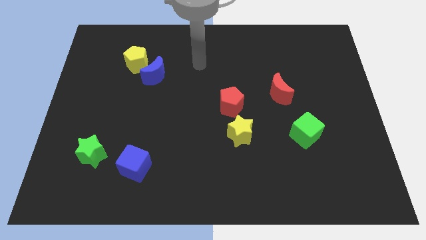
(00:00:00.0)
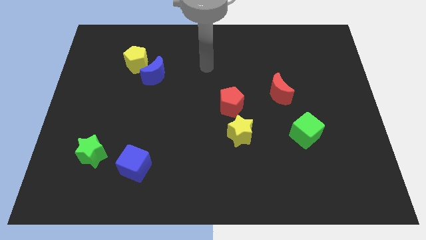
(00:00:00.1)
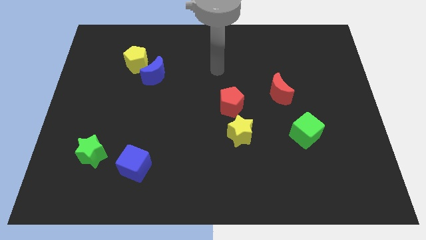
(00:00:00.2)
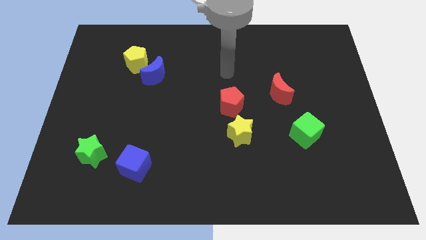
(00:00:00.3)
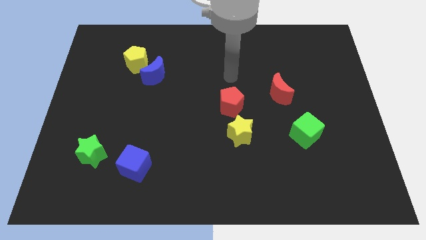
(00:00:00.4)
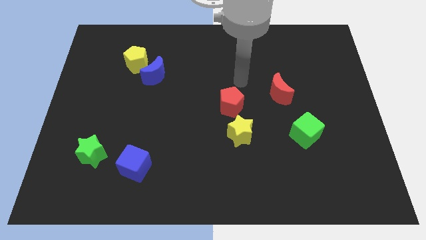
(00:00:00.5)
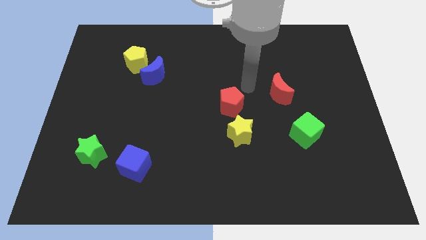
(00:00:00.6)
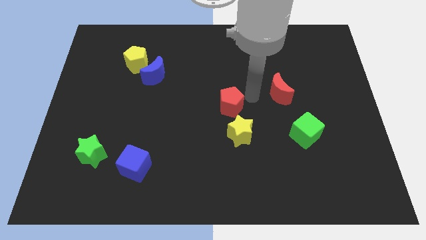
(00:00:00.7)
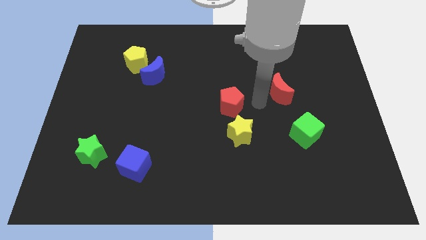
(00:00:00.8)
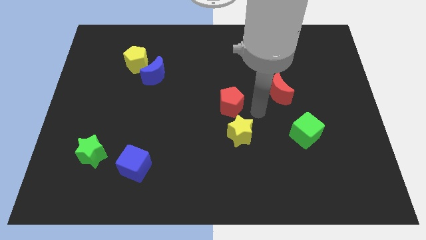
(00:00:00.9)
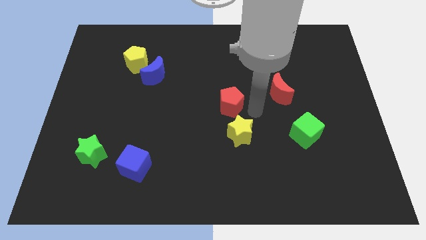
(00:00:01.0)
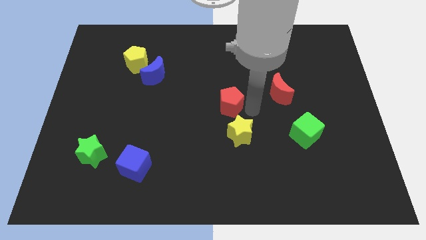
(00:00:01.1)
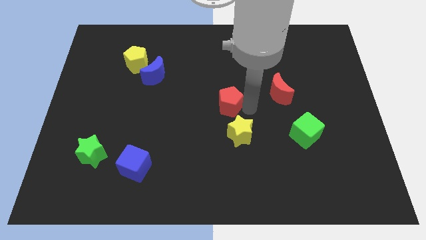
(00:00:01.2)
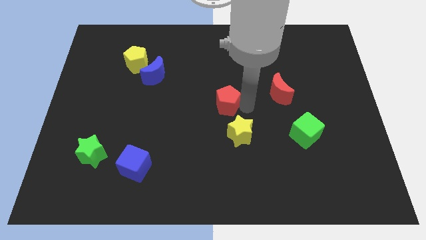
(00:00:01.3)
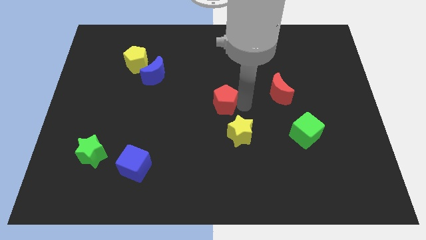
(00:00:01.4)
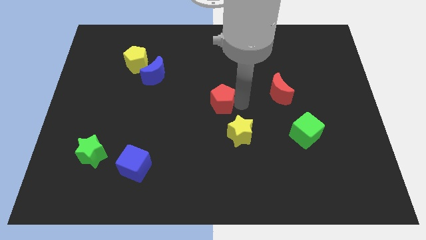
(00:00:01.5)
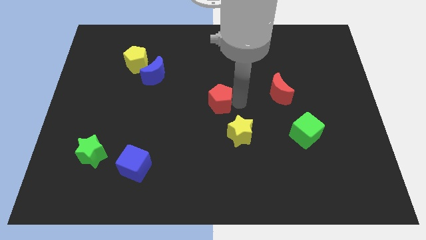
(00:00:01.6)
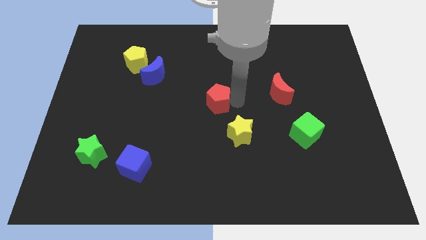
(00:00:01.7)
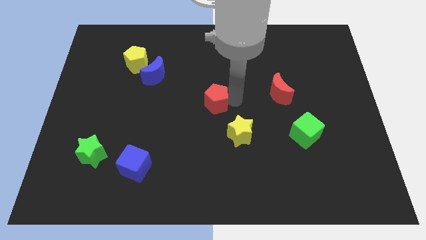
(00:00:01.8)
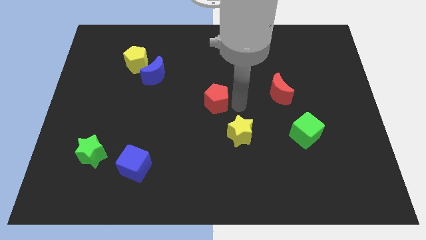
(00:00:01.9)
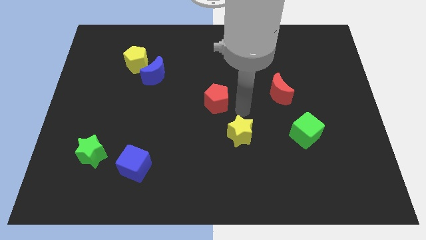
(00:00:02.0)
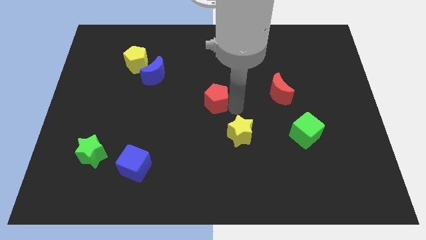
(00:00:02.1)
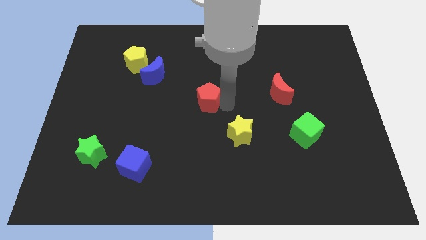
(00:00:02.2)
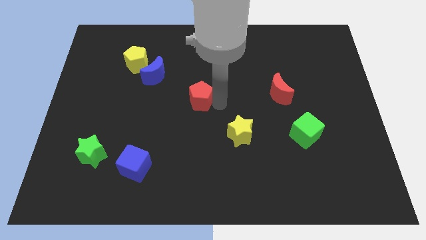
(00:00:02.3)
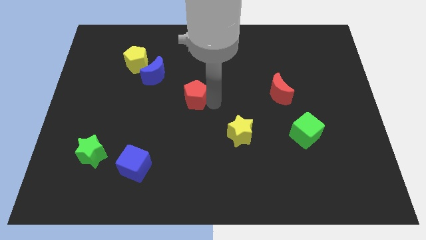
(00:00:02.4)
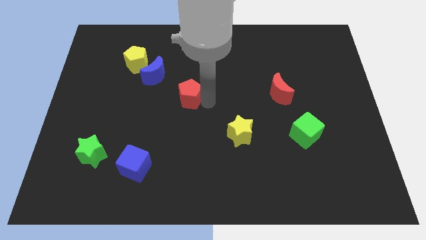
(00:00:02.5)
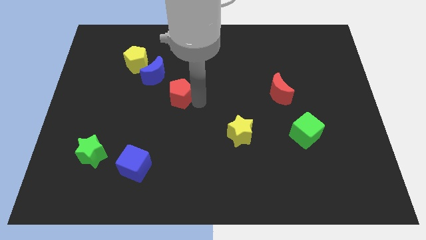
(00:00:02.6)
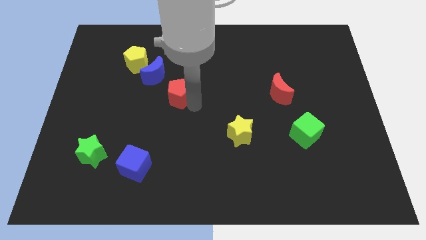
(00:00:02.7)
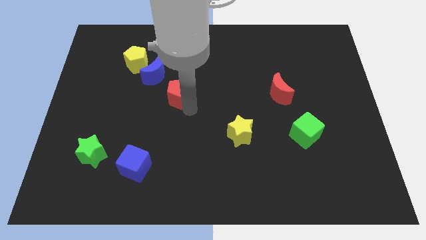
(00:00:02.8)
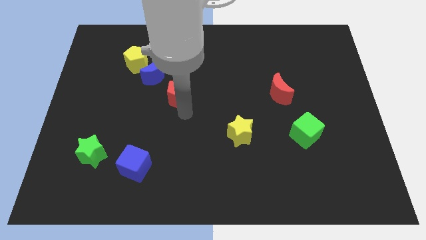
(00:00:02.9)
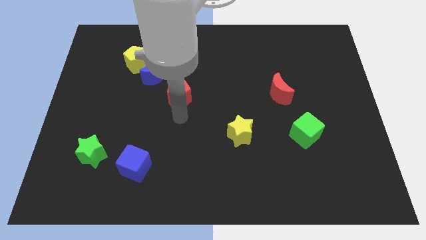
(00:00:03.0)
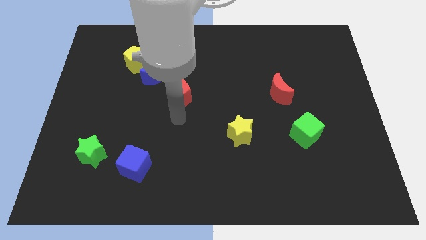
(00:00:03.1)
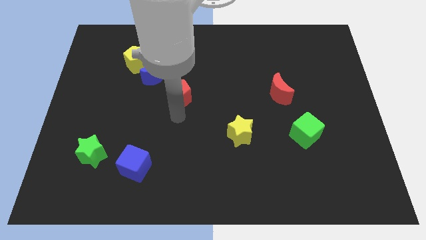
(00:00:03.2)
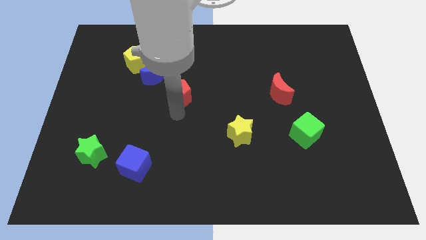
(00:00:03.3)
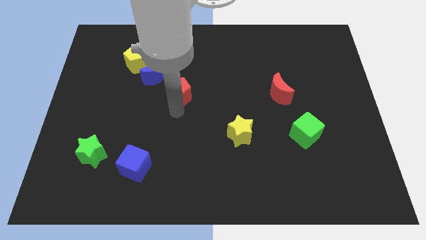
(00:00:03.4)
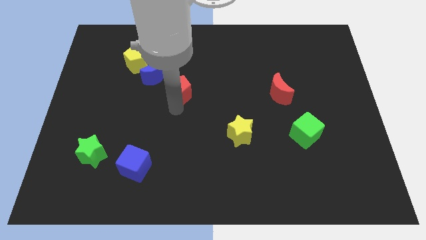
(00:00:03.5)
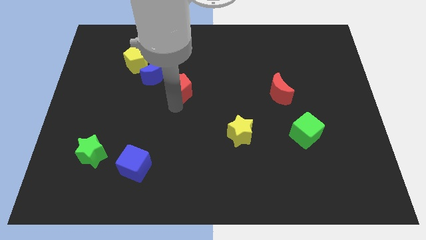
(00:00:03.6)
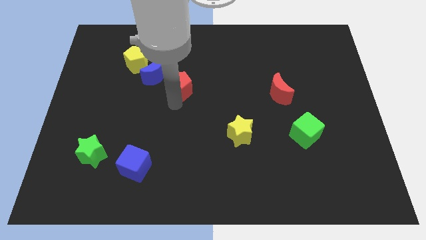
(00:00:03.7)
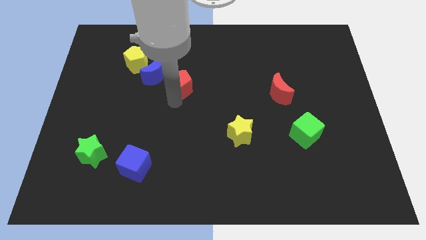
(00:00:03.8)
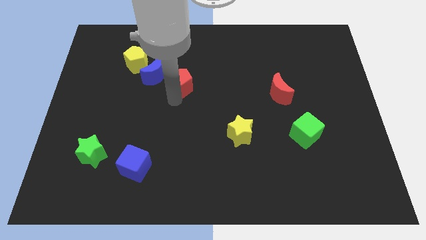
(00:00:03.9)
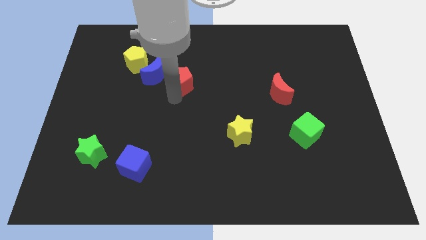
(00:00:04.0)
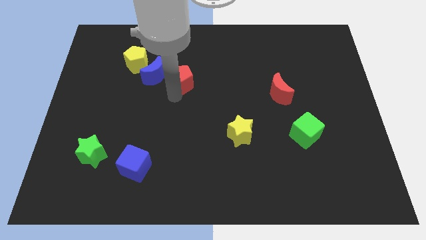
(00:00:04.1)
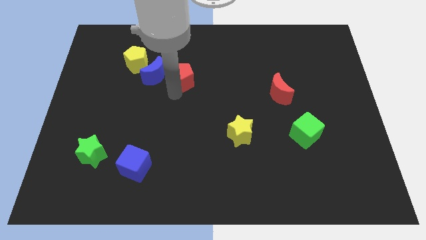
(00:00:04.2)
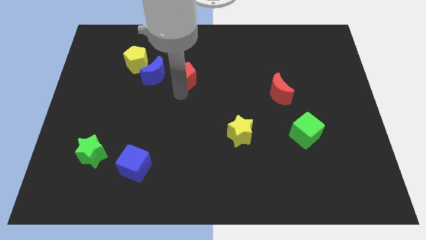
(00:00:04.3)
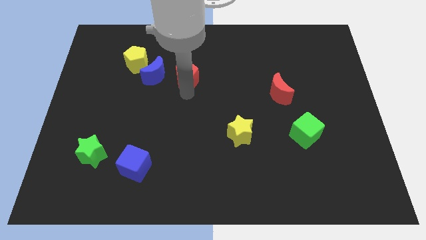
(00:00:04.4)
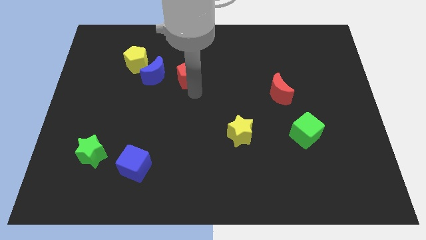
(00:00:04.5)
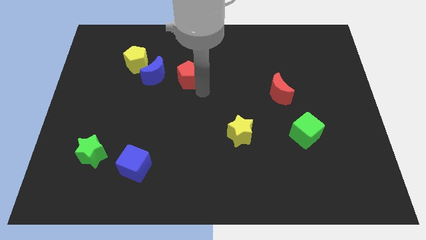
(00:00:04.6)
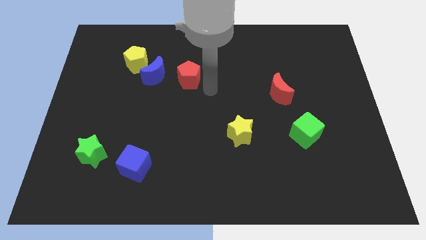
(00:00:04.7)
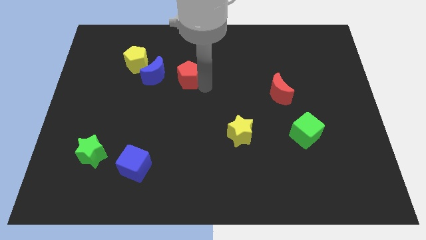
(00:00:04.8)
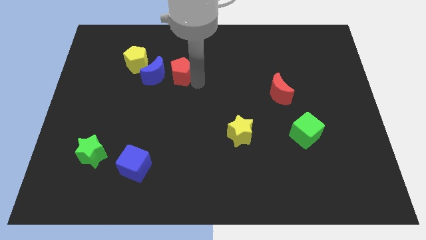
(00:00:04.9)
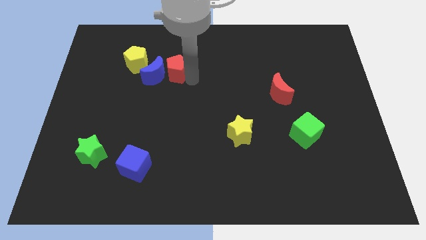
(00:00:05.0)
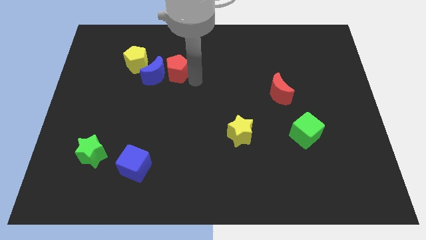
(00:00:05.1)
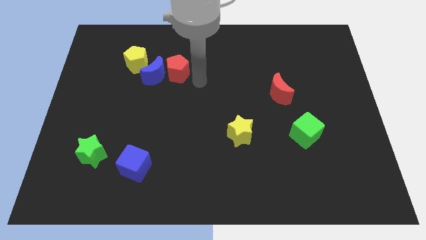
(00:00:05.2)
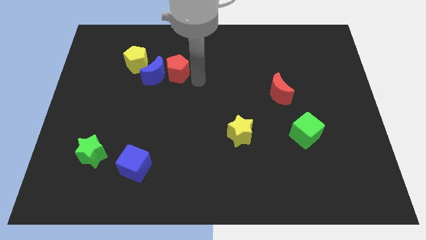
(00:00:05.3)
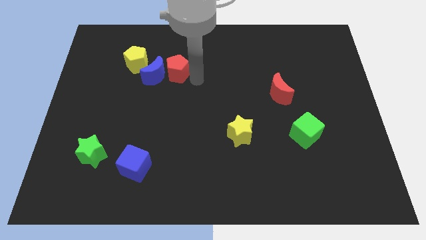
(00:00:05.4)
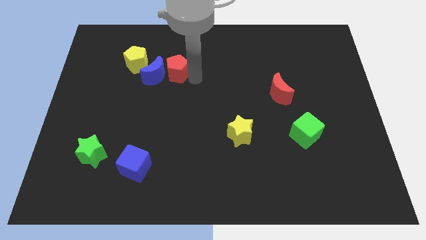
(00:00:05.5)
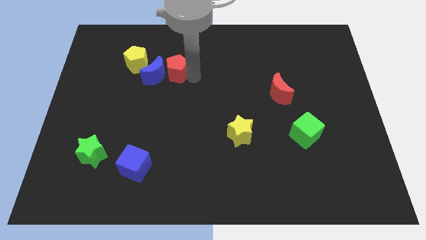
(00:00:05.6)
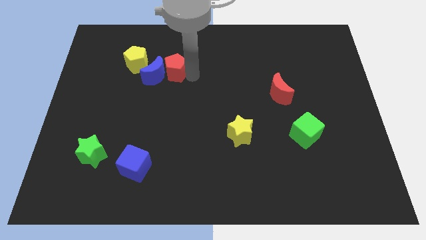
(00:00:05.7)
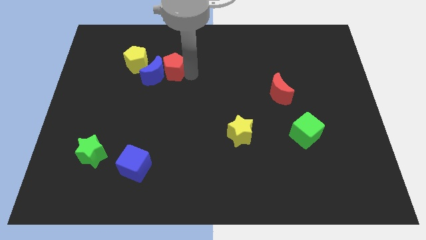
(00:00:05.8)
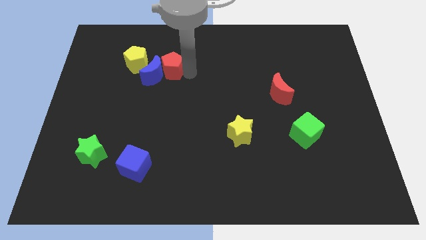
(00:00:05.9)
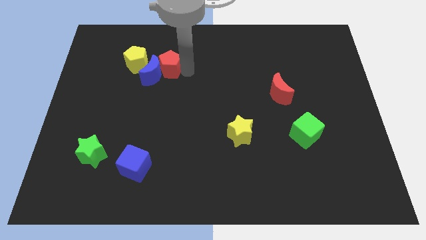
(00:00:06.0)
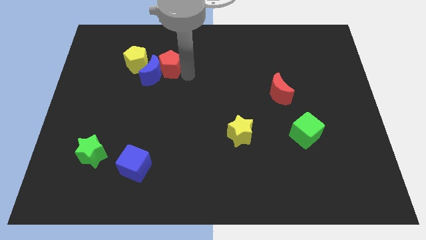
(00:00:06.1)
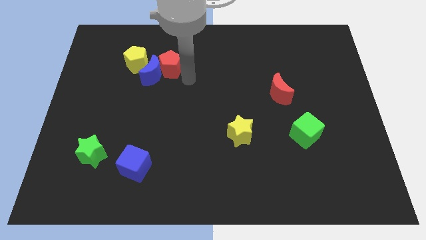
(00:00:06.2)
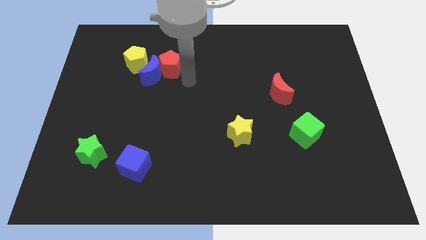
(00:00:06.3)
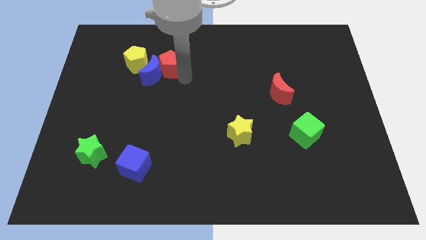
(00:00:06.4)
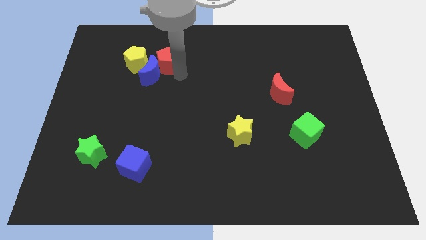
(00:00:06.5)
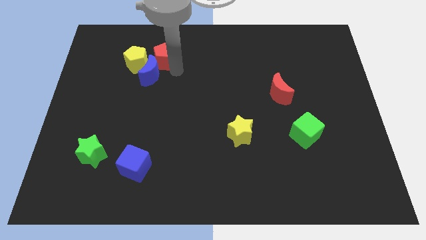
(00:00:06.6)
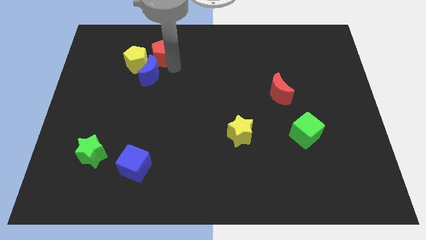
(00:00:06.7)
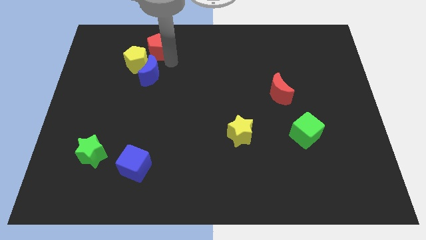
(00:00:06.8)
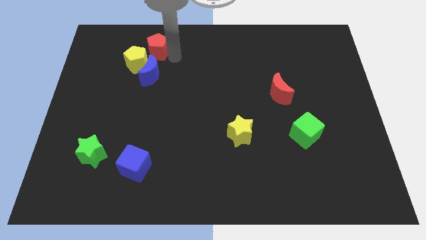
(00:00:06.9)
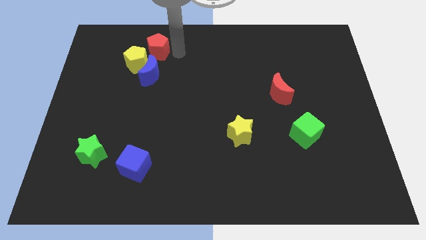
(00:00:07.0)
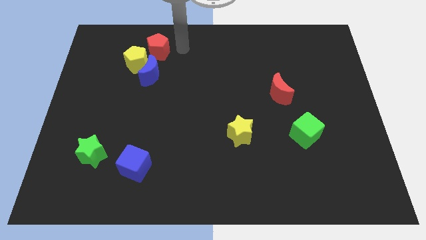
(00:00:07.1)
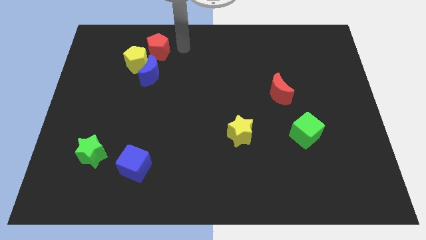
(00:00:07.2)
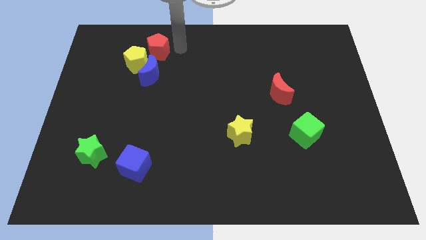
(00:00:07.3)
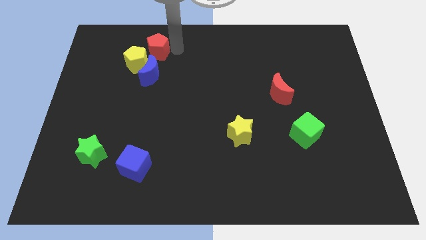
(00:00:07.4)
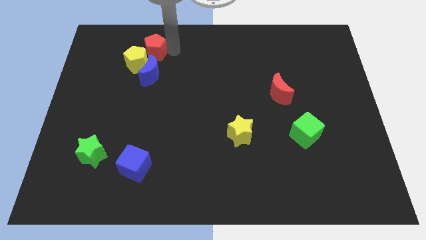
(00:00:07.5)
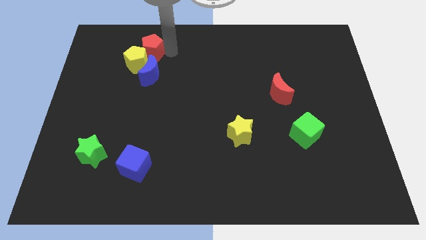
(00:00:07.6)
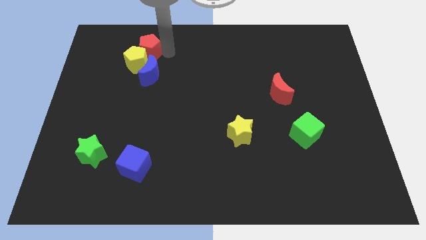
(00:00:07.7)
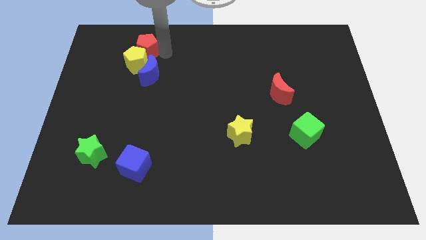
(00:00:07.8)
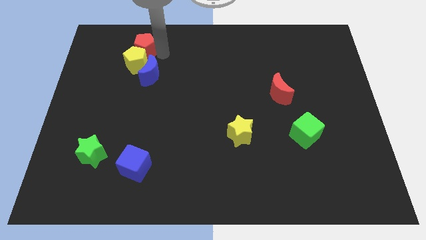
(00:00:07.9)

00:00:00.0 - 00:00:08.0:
move the red pentagon diagonally up and to the left of the blue moon

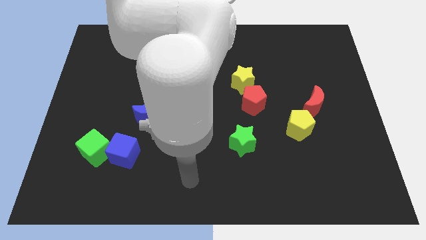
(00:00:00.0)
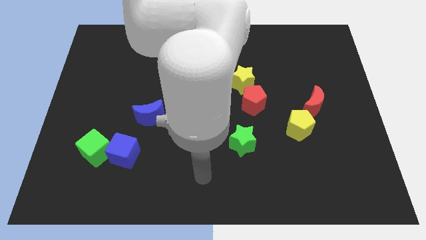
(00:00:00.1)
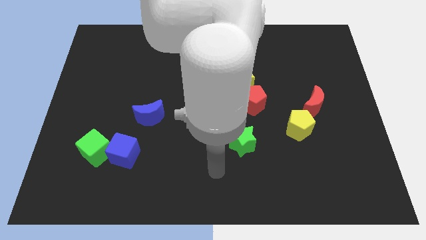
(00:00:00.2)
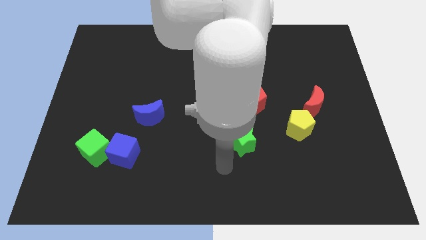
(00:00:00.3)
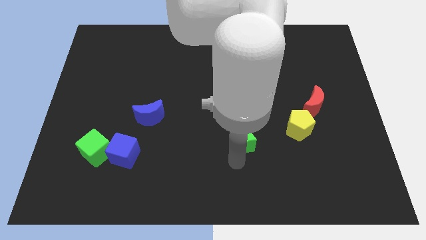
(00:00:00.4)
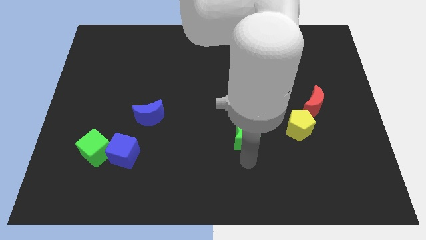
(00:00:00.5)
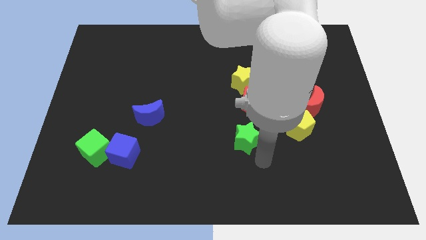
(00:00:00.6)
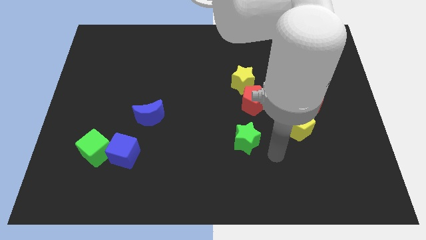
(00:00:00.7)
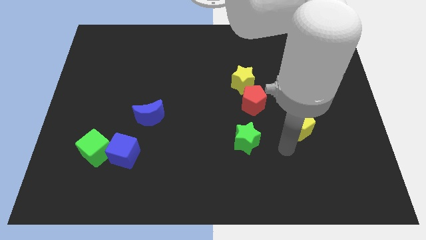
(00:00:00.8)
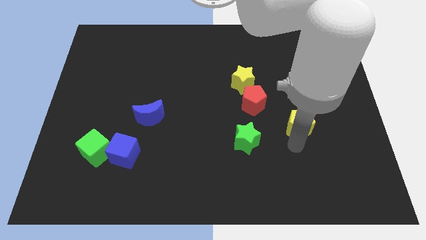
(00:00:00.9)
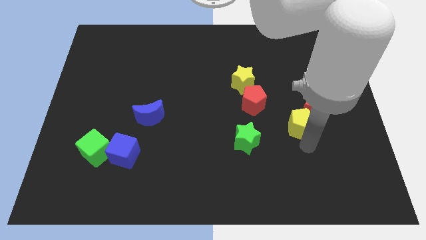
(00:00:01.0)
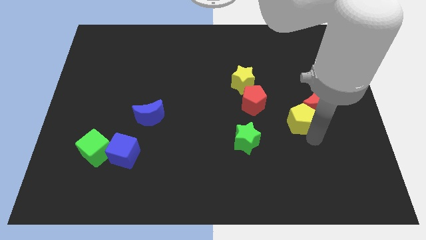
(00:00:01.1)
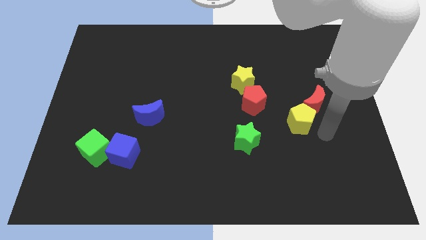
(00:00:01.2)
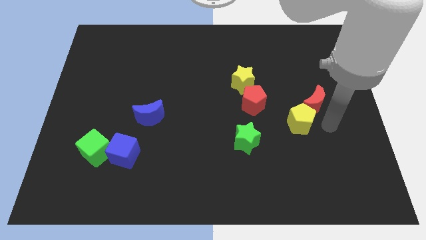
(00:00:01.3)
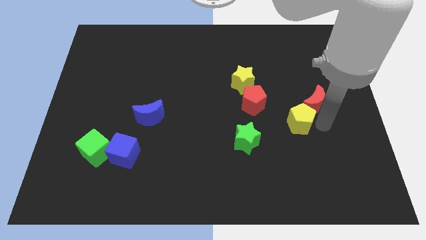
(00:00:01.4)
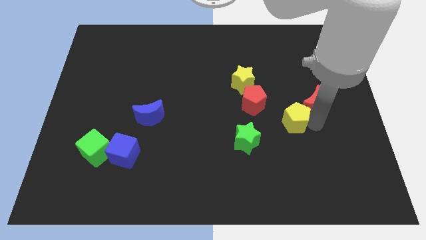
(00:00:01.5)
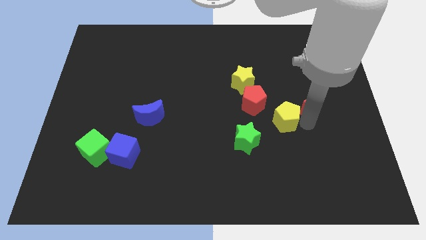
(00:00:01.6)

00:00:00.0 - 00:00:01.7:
slide the yellow pentagon to the top right side of the green star
